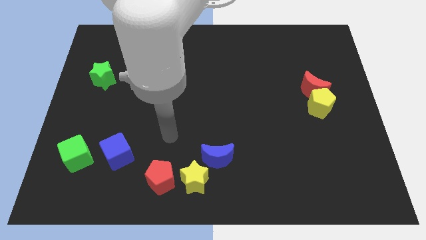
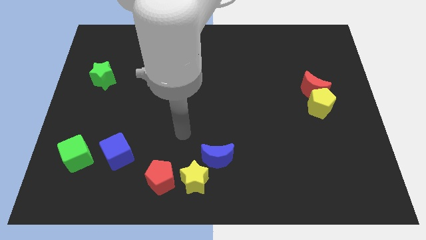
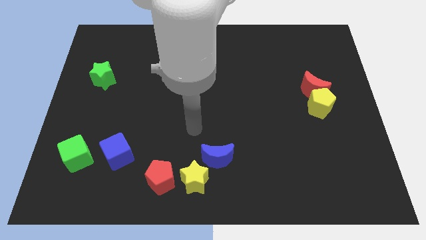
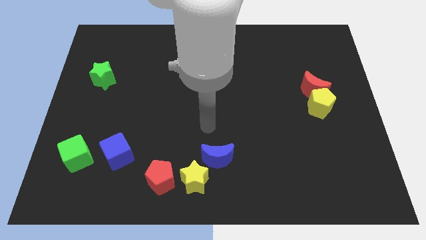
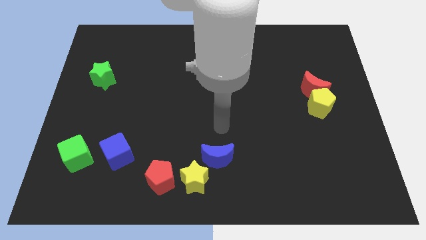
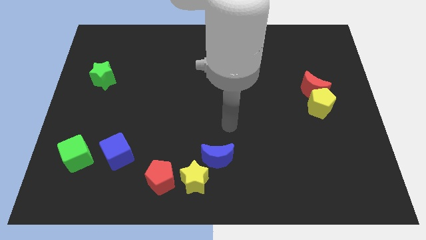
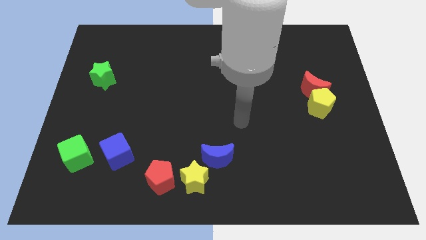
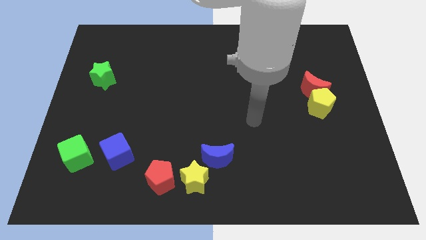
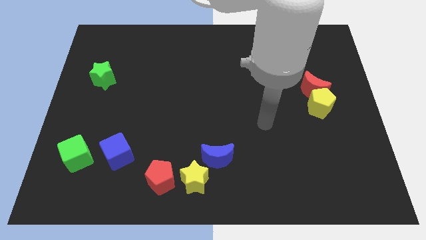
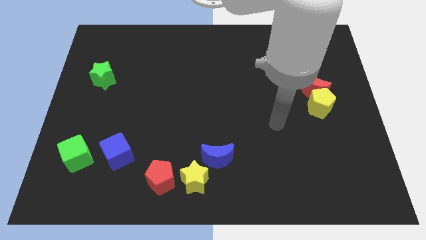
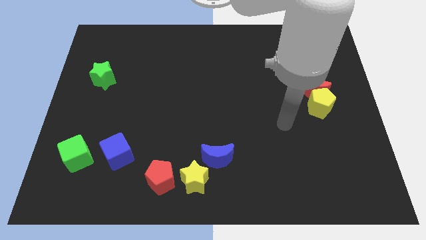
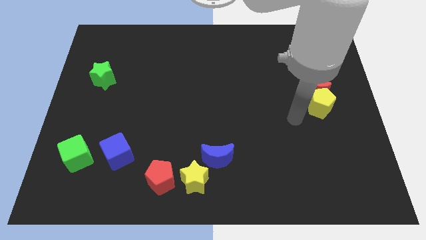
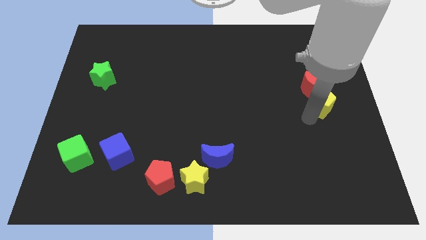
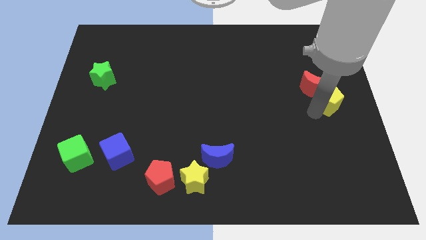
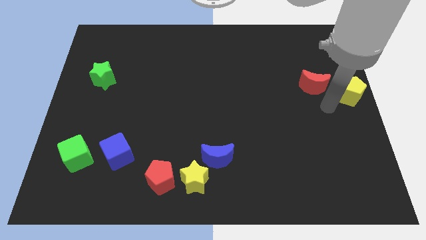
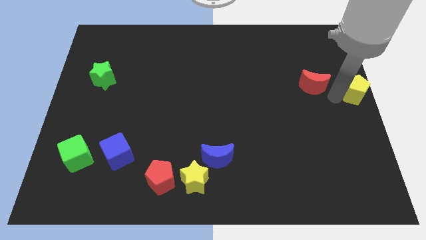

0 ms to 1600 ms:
pull the red moon apart from the yellow pentagon

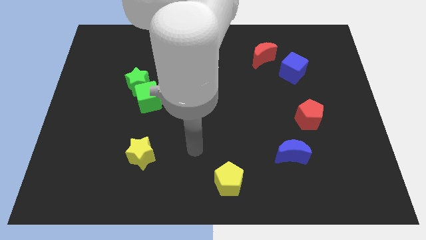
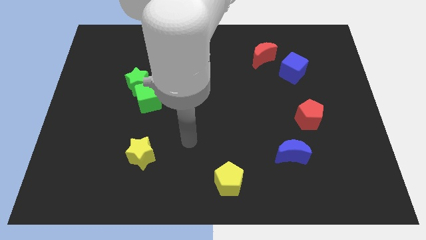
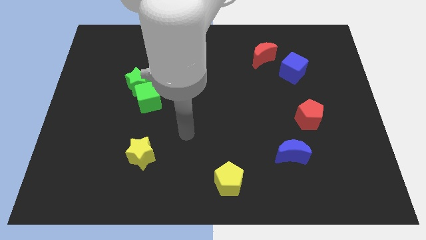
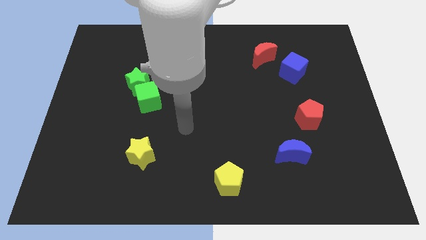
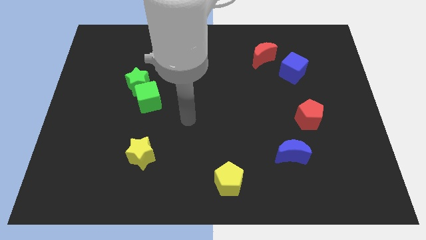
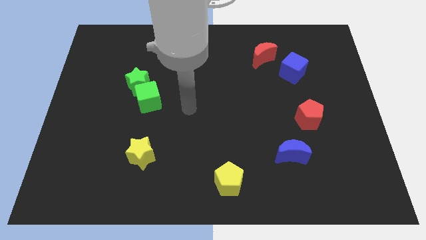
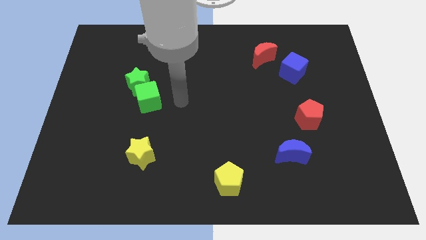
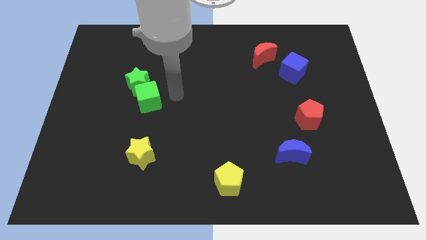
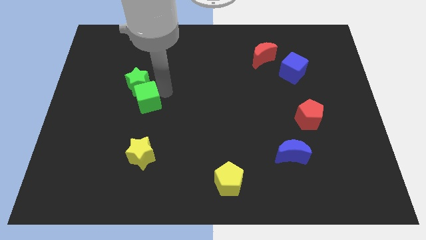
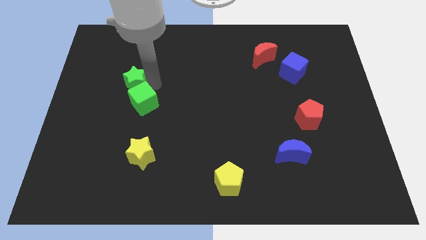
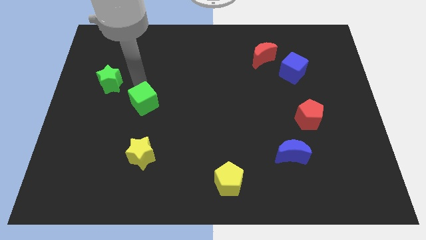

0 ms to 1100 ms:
separate the green cube from the green star

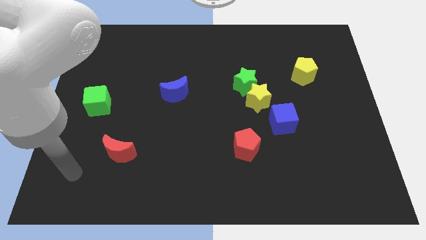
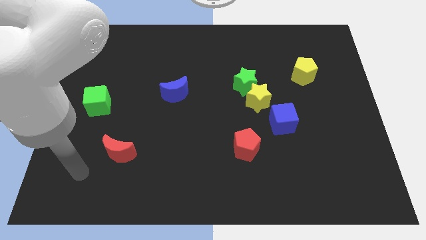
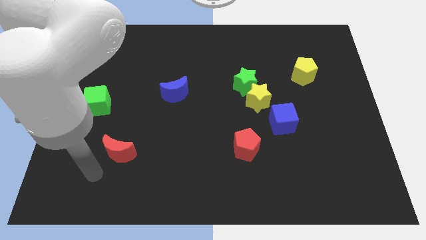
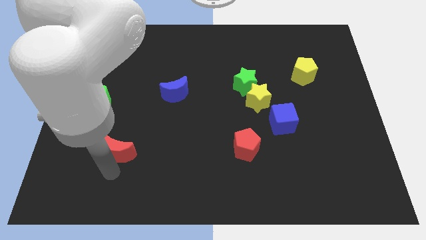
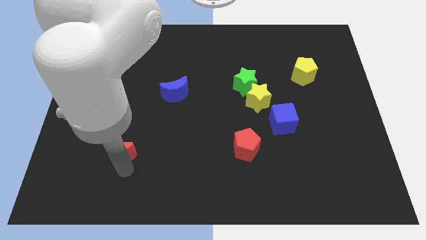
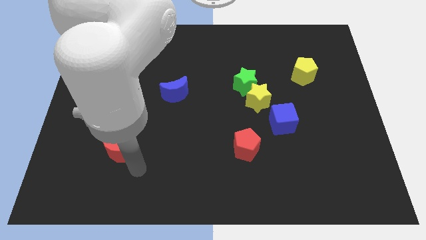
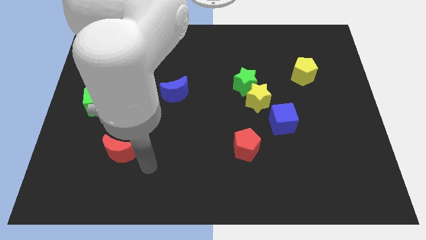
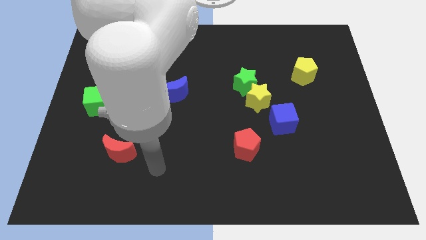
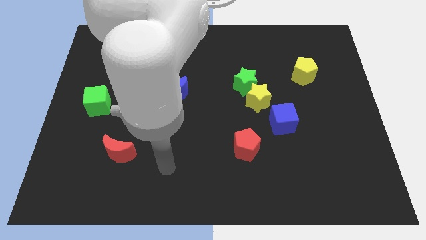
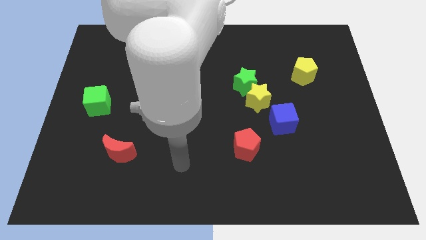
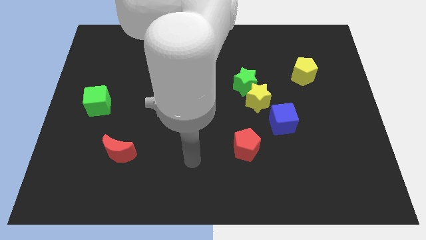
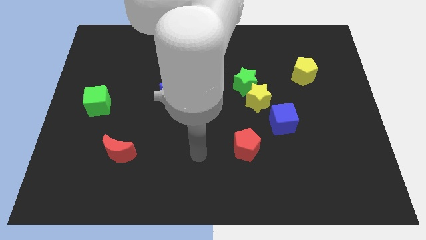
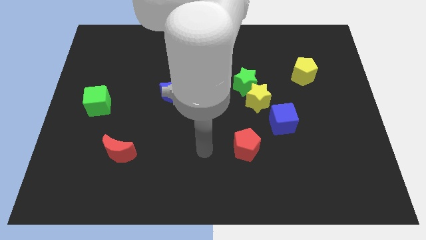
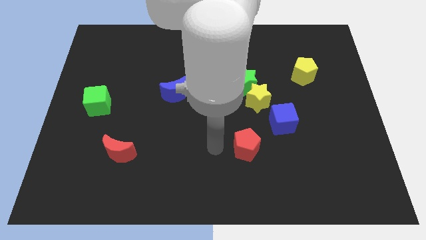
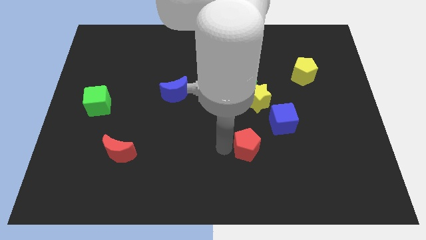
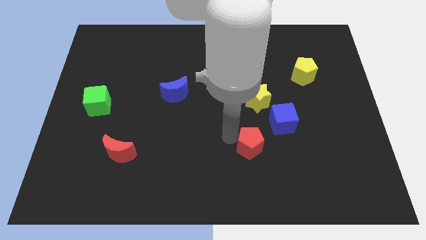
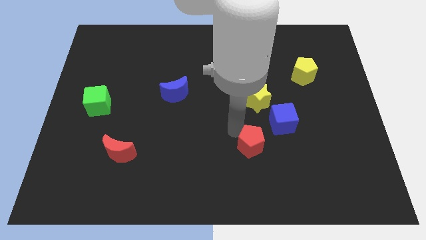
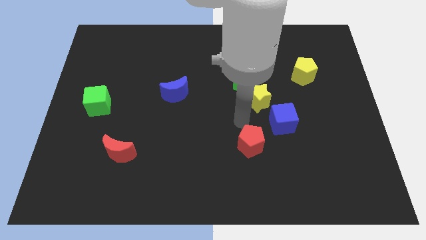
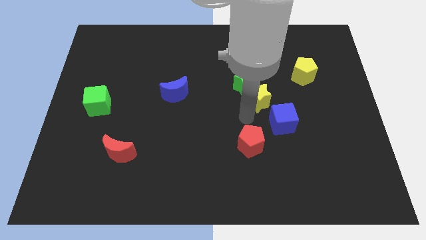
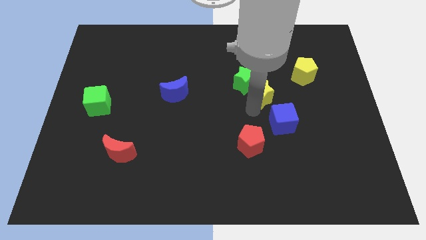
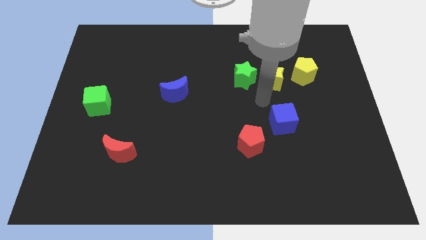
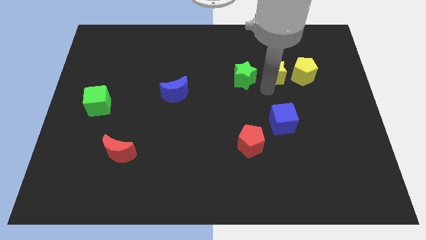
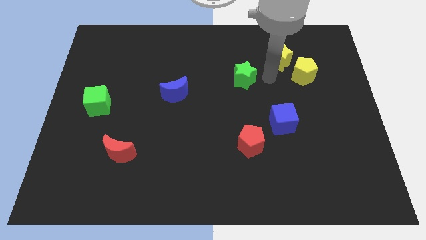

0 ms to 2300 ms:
separate the green star from the yellow star

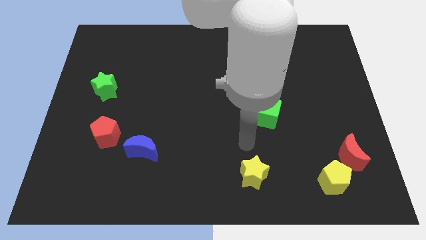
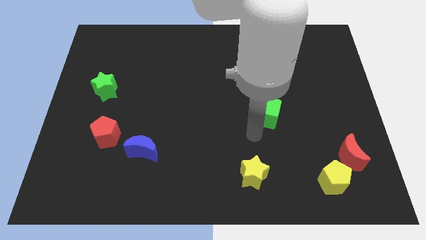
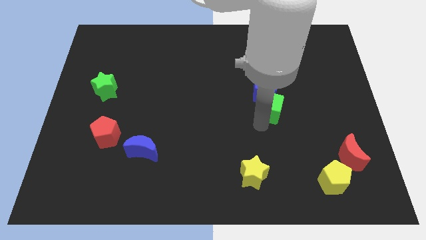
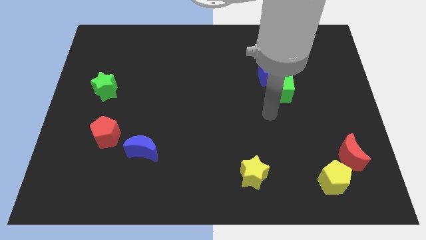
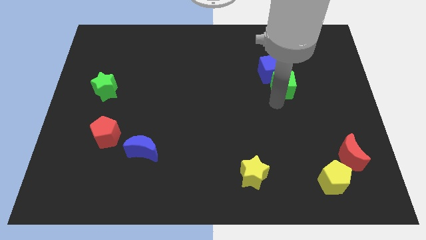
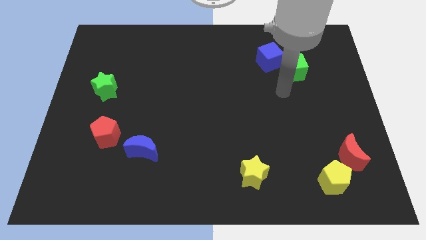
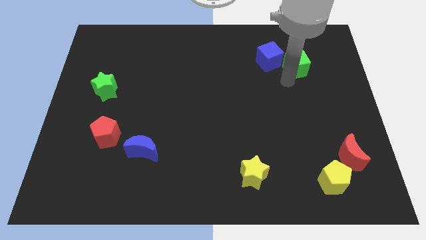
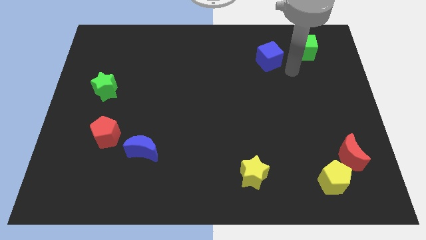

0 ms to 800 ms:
separate the blue cube from the green cube

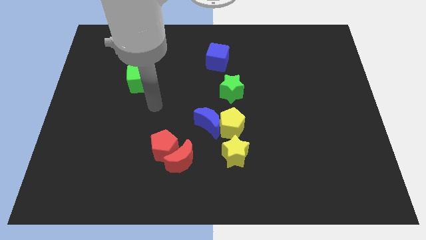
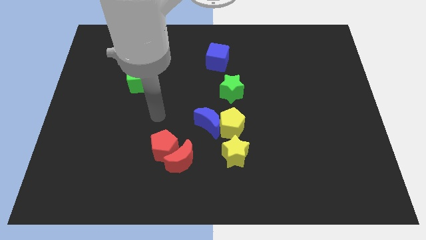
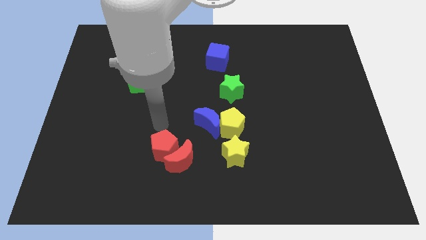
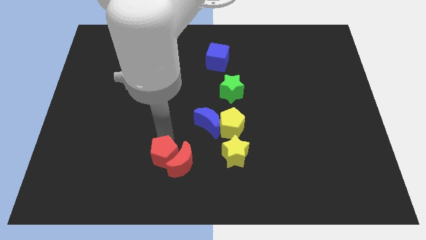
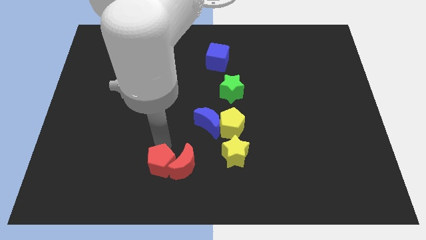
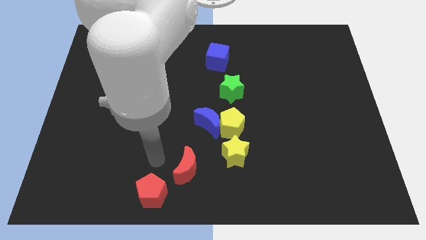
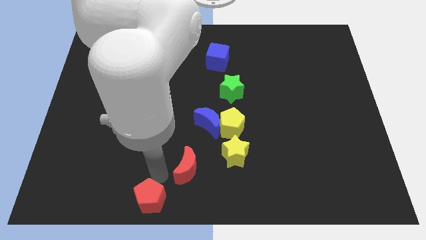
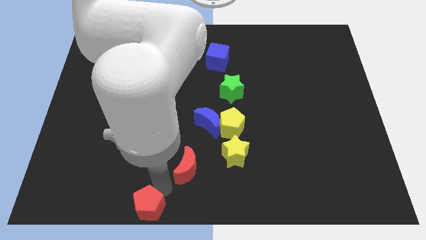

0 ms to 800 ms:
move the red moon away from the red pentagon

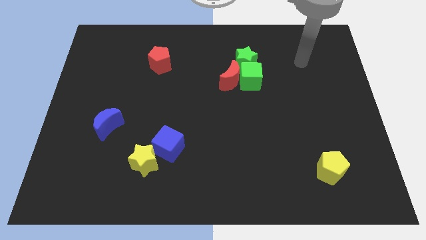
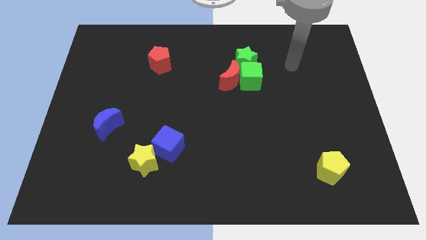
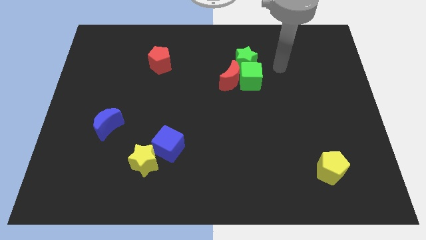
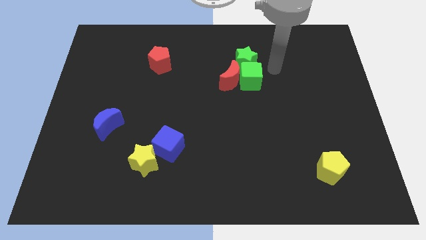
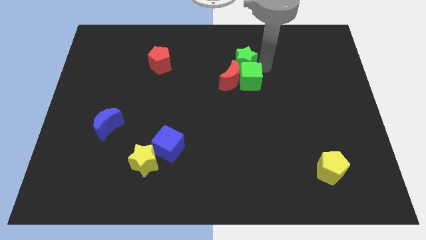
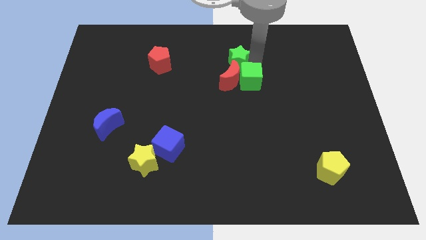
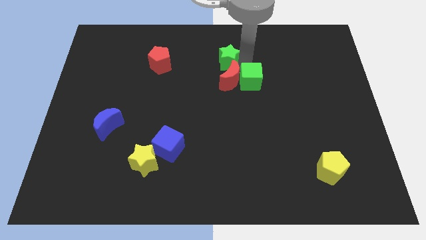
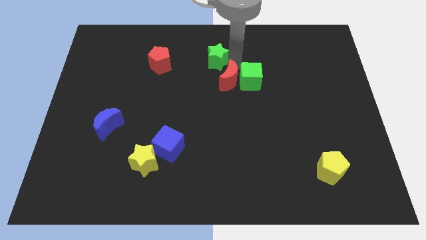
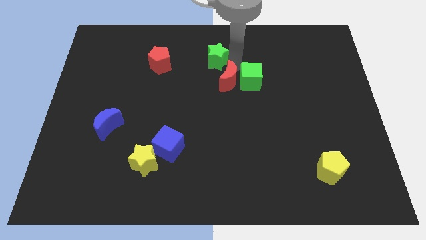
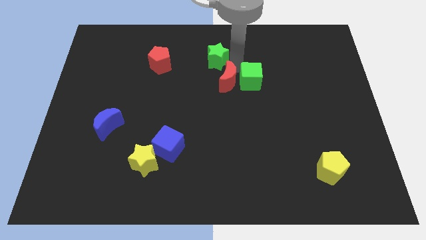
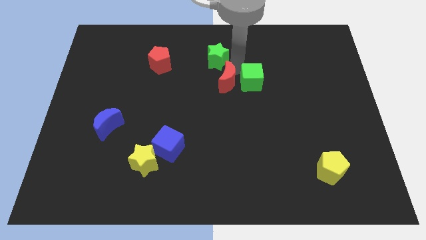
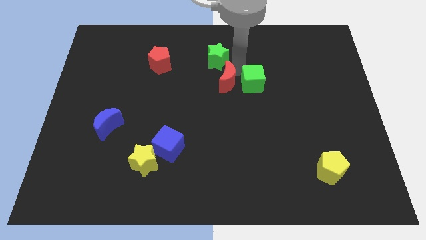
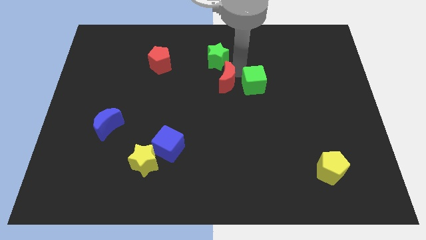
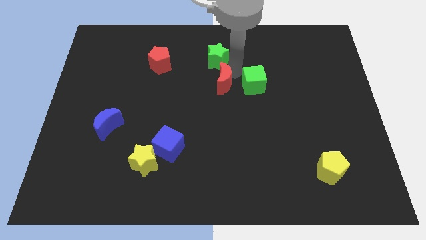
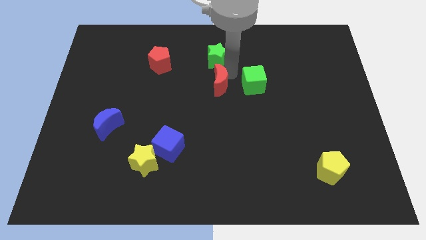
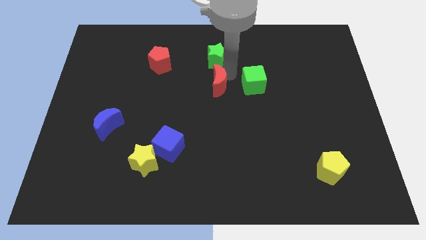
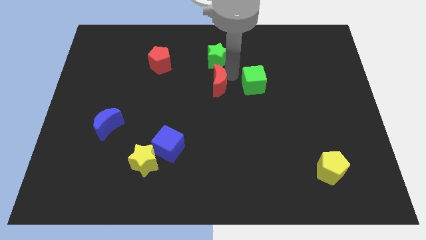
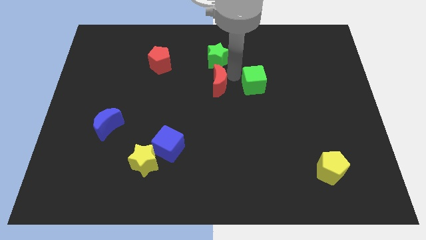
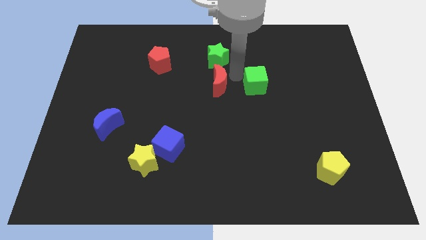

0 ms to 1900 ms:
move the green cube away from the red moon and green star

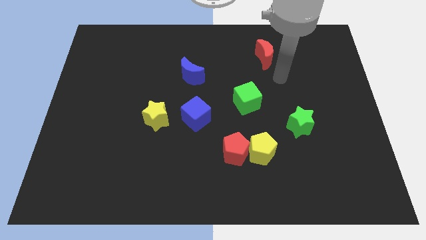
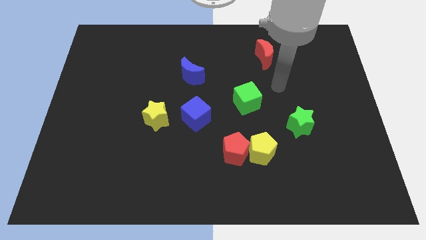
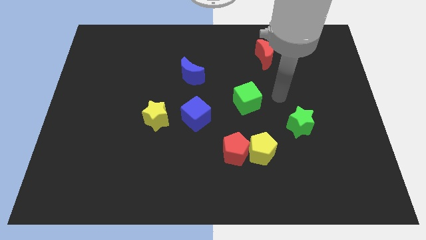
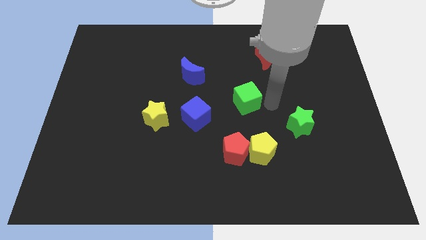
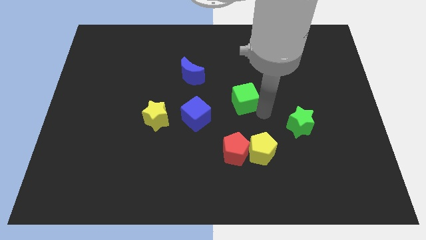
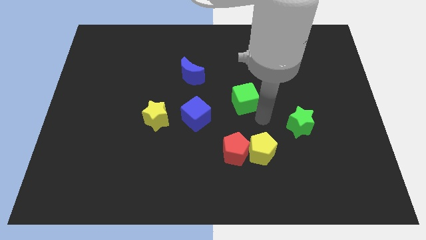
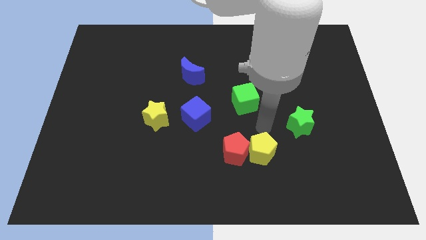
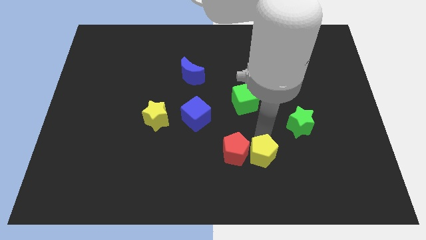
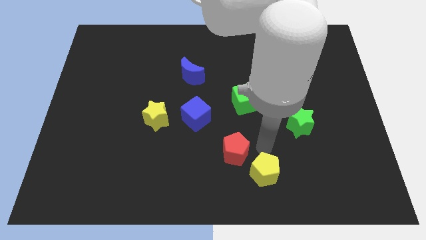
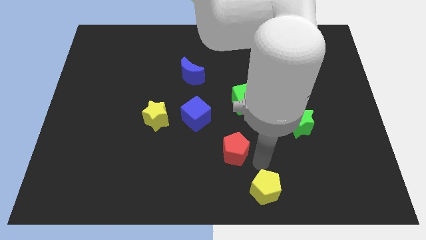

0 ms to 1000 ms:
separate the red pentagon from the yellow pentagon
